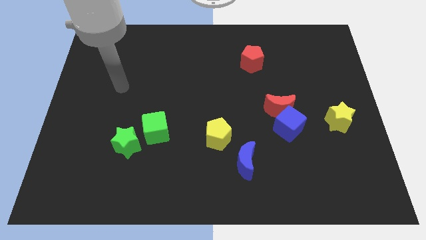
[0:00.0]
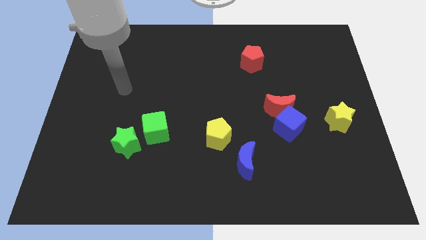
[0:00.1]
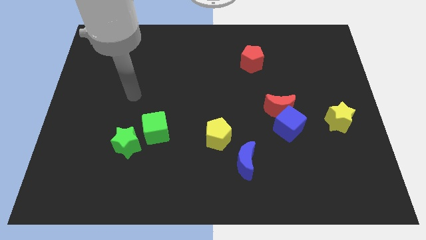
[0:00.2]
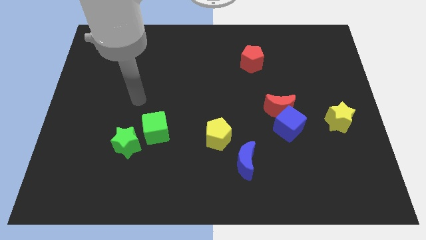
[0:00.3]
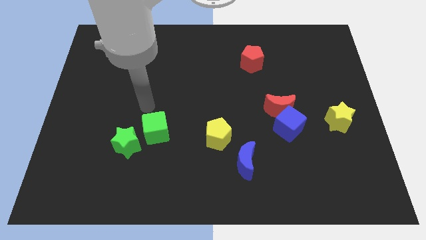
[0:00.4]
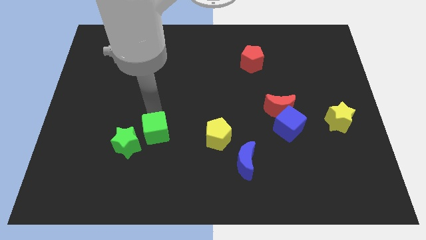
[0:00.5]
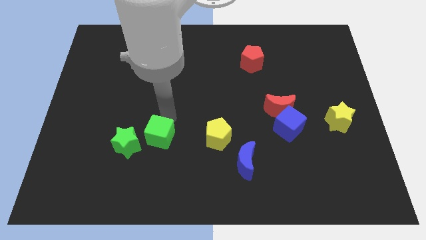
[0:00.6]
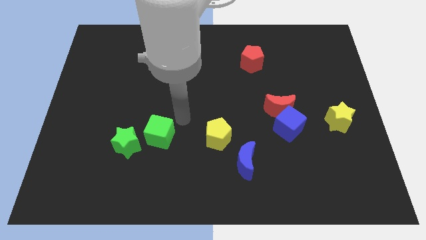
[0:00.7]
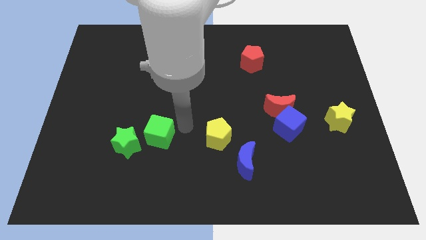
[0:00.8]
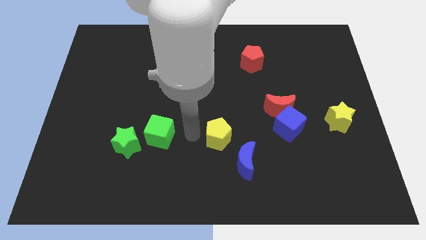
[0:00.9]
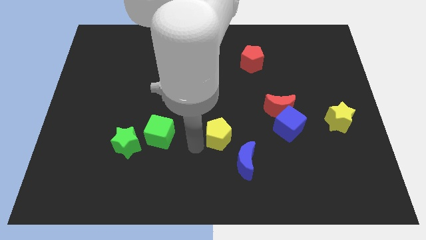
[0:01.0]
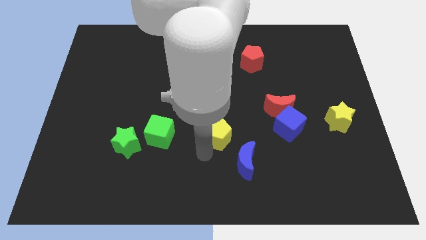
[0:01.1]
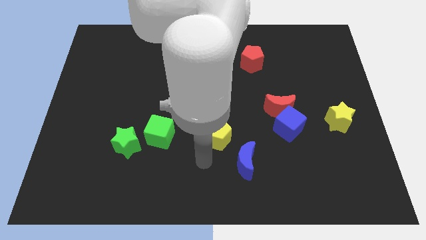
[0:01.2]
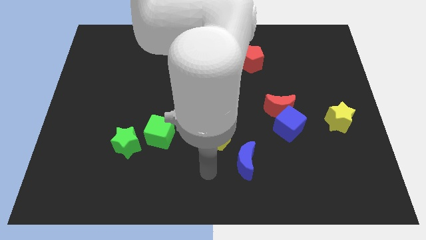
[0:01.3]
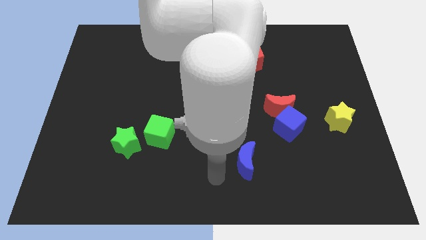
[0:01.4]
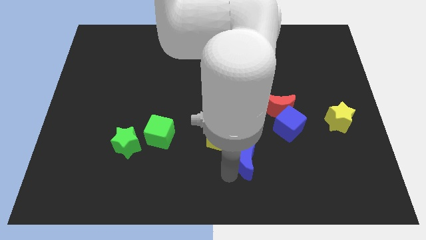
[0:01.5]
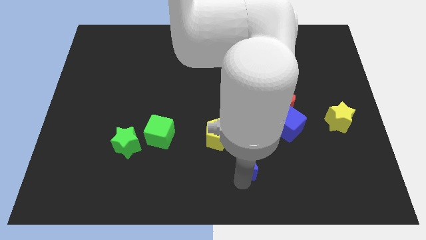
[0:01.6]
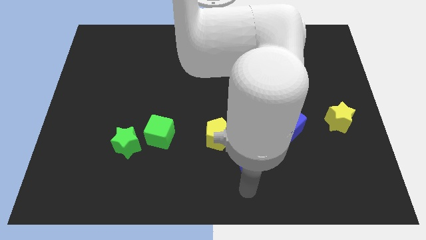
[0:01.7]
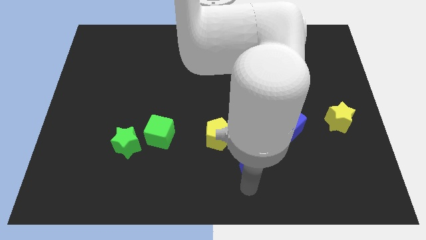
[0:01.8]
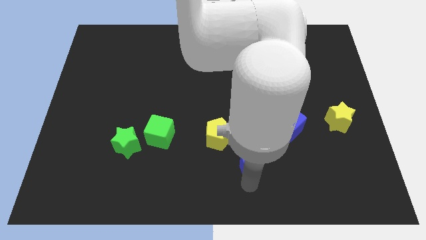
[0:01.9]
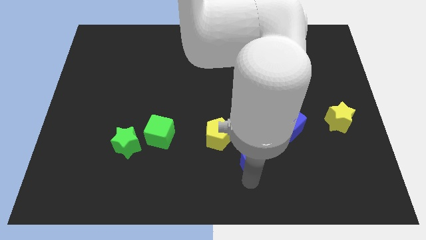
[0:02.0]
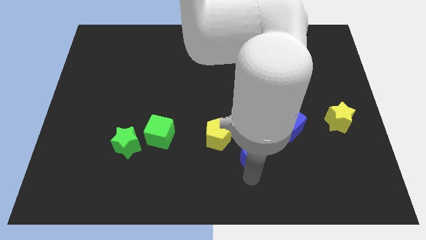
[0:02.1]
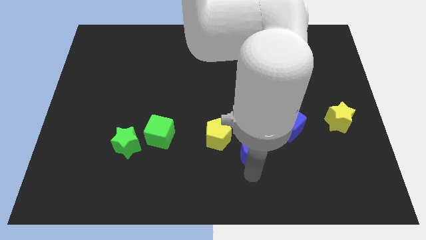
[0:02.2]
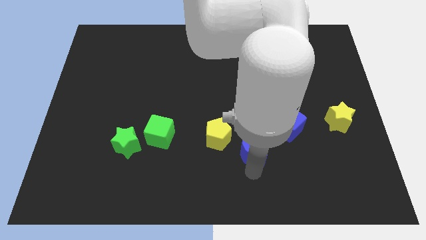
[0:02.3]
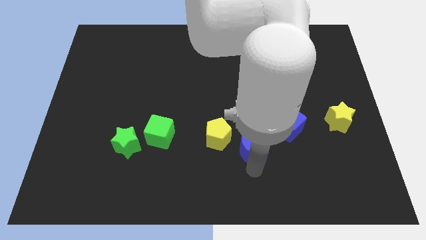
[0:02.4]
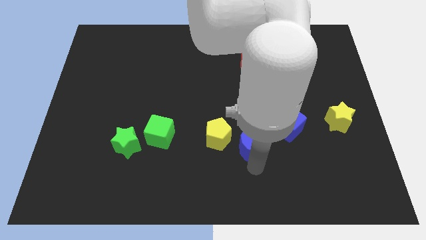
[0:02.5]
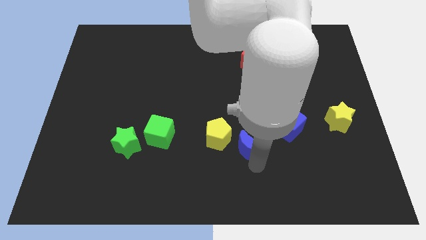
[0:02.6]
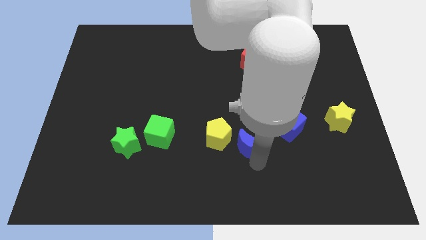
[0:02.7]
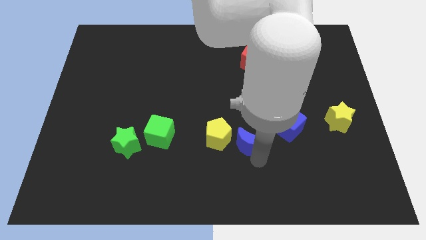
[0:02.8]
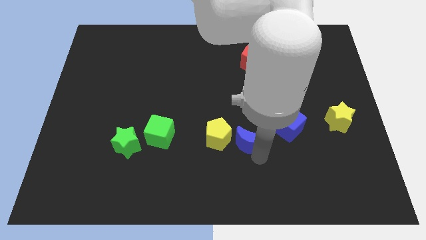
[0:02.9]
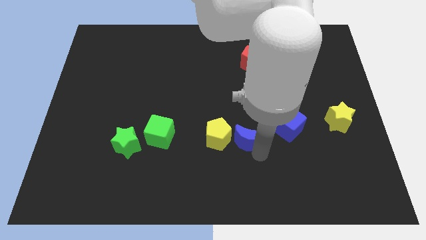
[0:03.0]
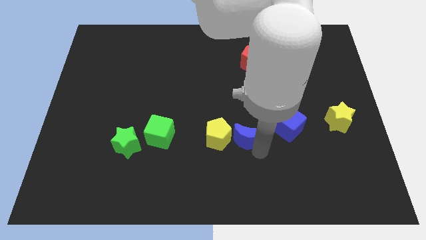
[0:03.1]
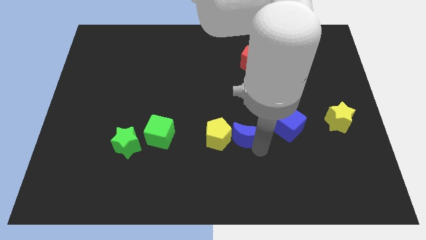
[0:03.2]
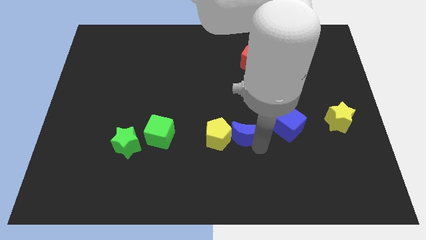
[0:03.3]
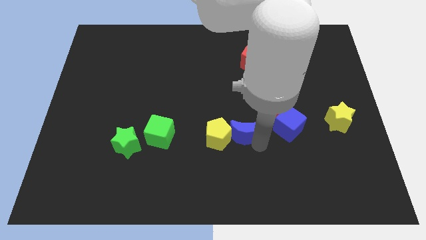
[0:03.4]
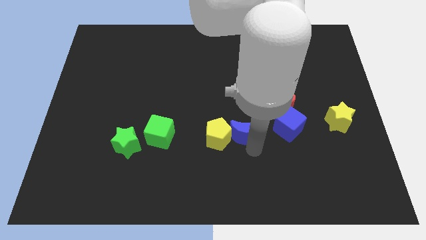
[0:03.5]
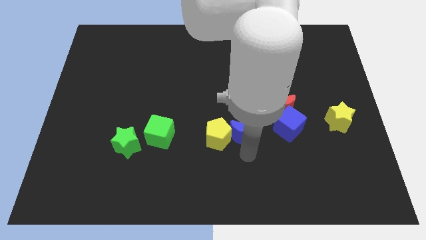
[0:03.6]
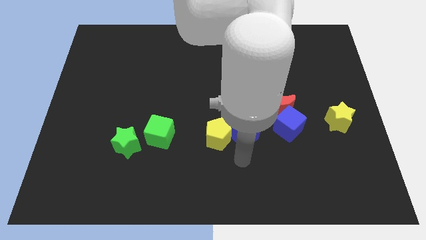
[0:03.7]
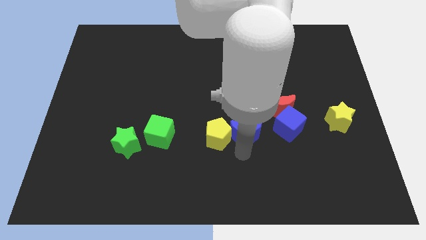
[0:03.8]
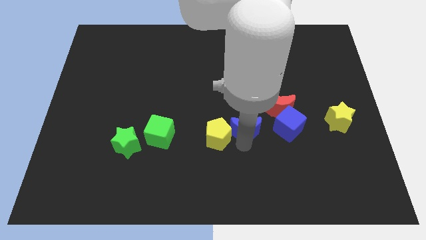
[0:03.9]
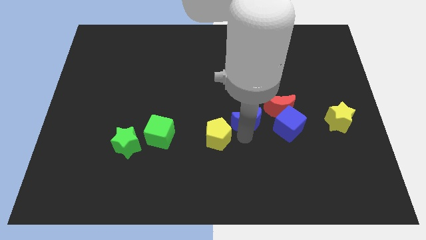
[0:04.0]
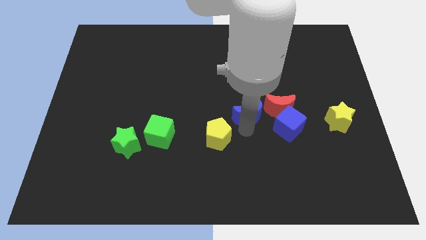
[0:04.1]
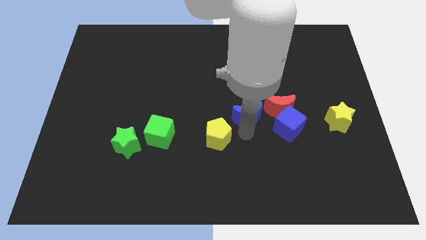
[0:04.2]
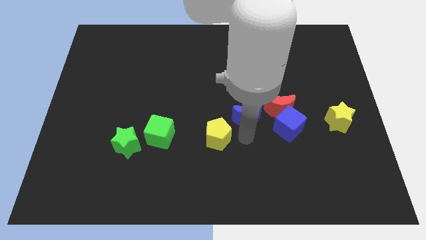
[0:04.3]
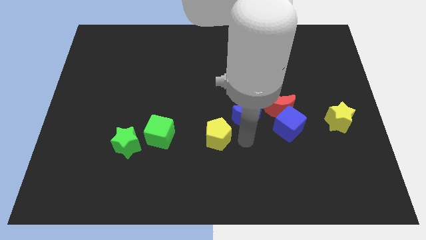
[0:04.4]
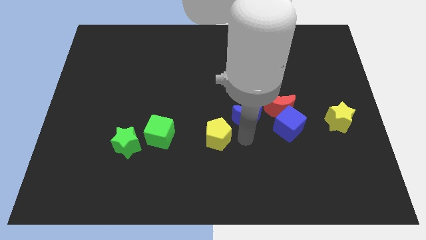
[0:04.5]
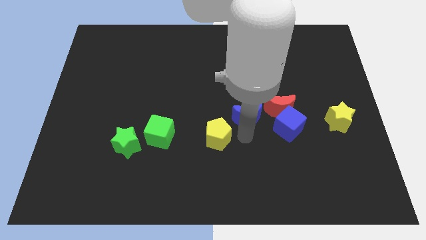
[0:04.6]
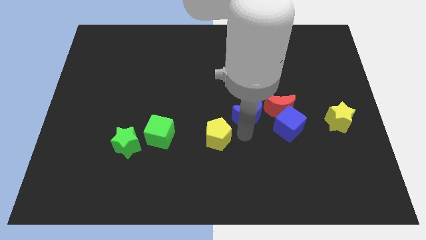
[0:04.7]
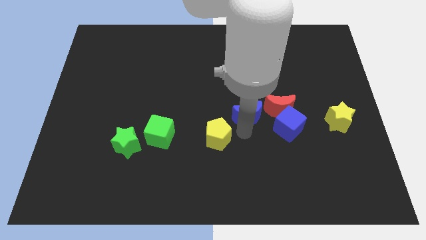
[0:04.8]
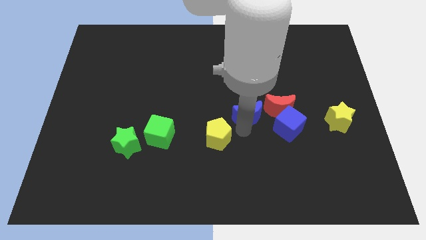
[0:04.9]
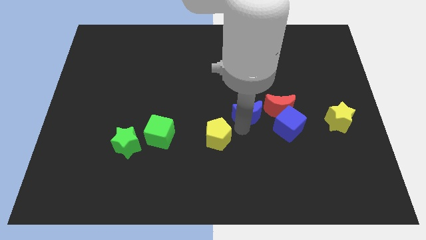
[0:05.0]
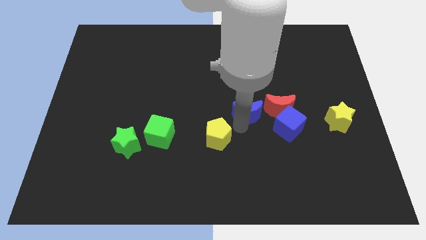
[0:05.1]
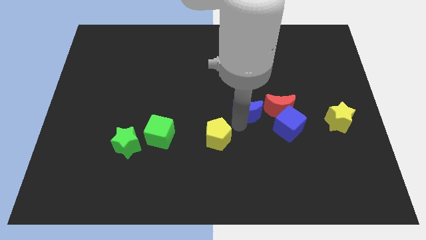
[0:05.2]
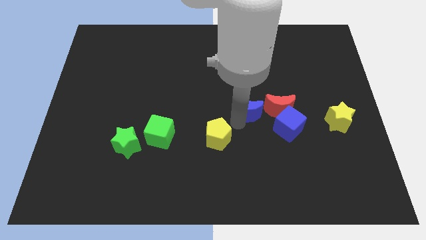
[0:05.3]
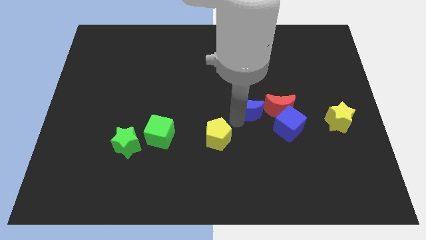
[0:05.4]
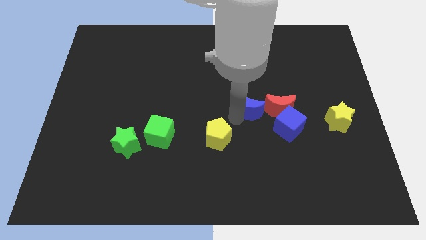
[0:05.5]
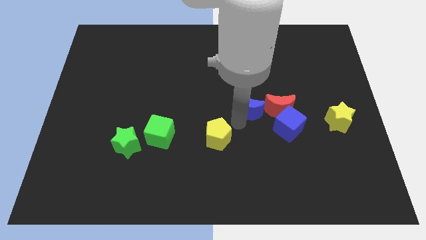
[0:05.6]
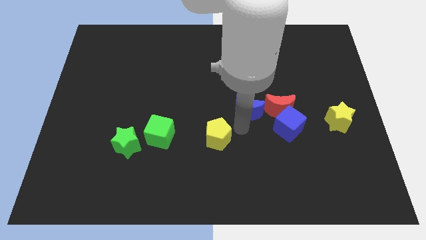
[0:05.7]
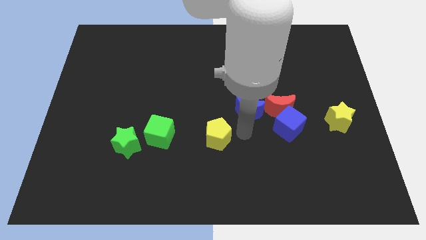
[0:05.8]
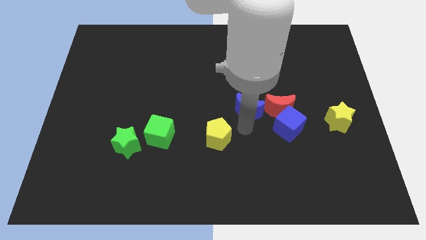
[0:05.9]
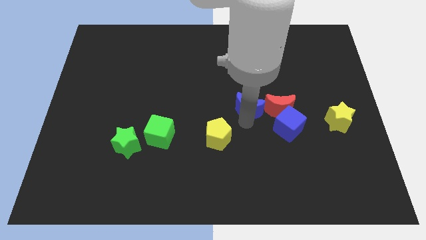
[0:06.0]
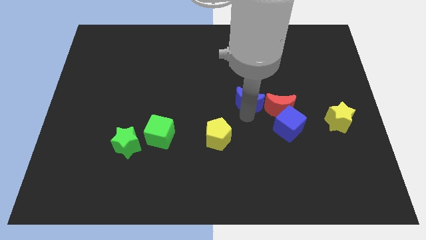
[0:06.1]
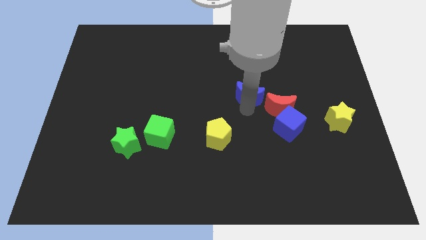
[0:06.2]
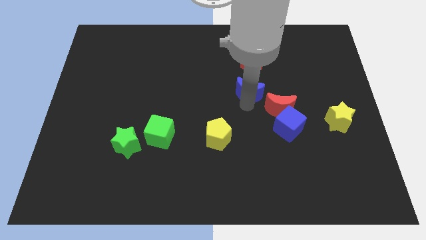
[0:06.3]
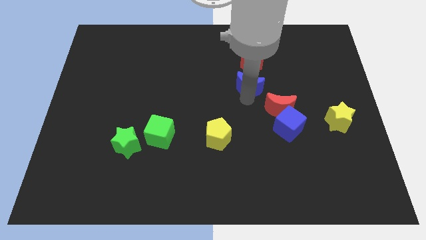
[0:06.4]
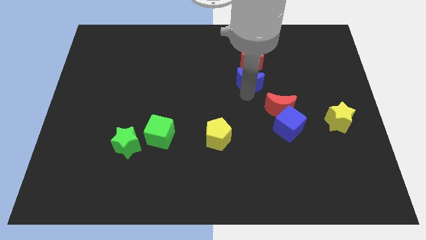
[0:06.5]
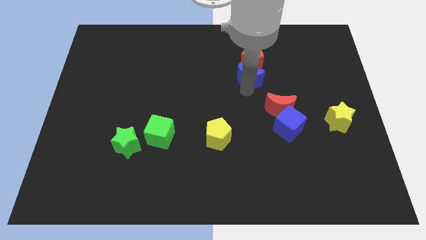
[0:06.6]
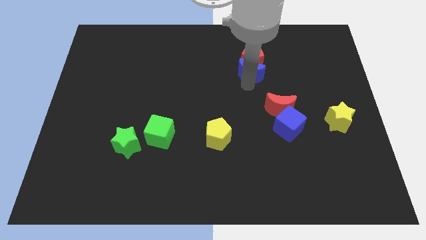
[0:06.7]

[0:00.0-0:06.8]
move the blue moon towards the red pentagon

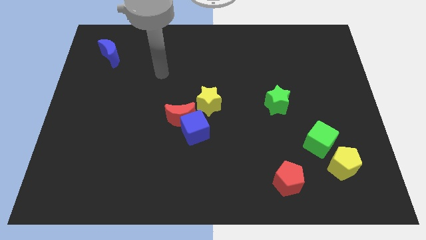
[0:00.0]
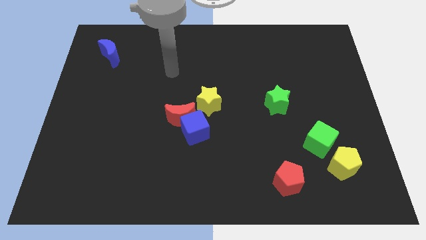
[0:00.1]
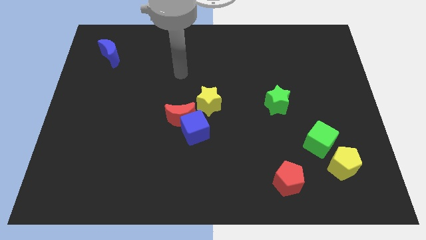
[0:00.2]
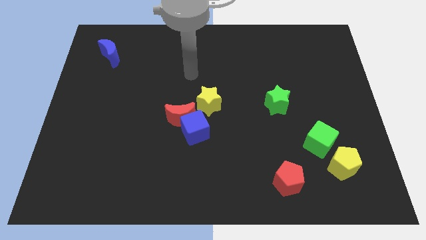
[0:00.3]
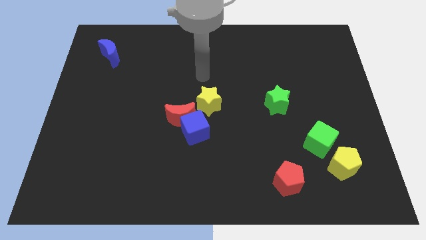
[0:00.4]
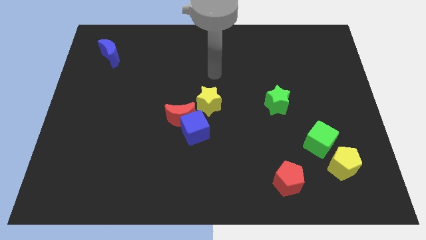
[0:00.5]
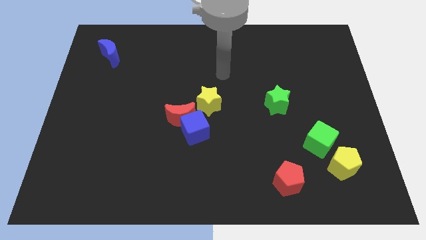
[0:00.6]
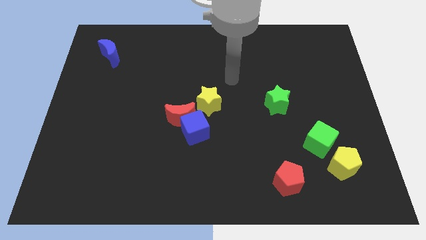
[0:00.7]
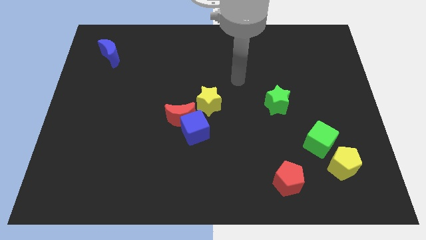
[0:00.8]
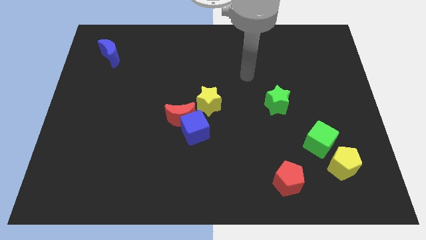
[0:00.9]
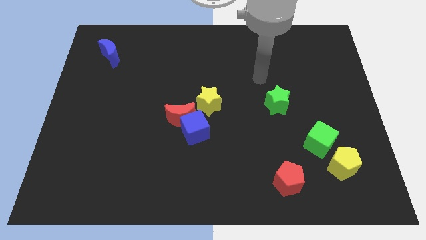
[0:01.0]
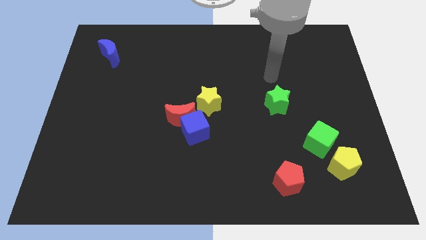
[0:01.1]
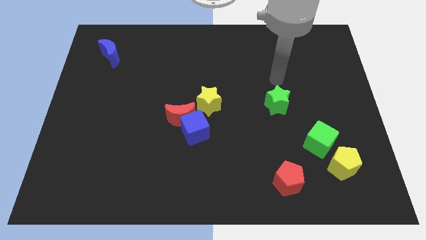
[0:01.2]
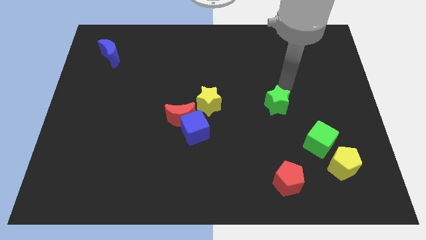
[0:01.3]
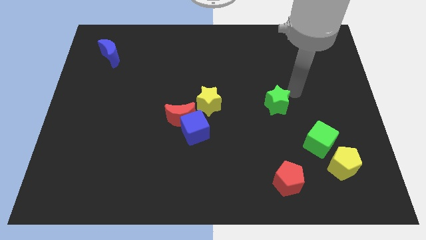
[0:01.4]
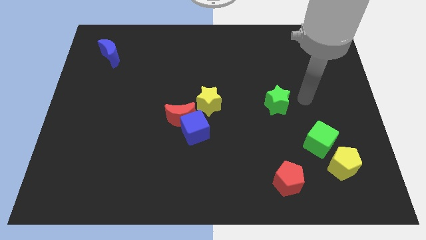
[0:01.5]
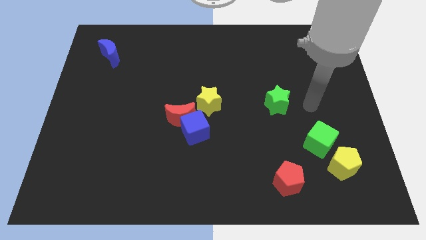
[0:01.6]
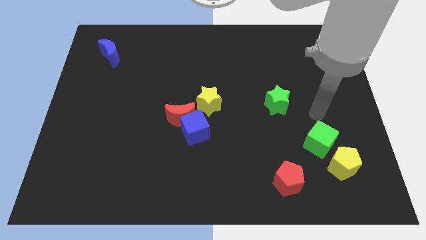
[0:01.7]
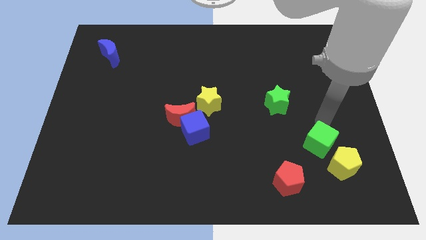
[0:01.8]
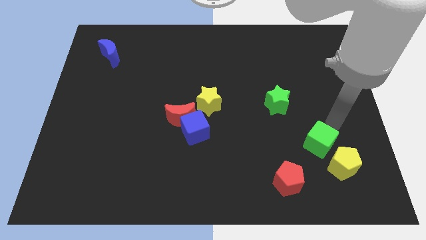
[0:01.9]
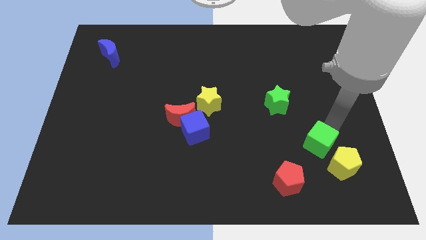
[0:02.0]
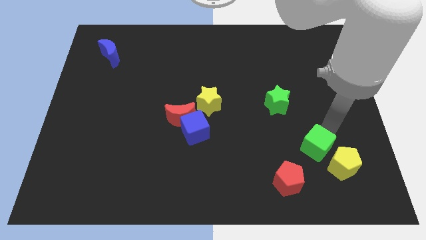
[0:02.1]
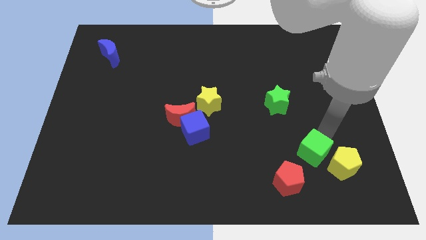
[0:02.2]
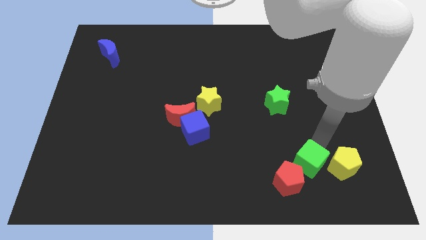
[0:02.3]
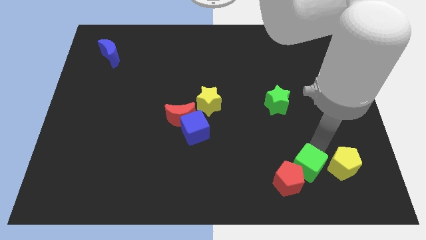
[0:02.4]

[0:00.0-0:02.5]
push the green cube towards the red pentagon
